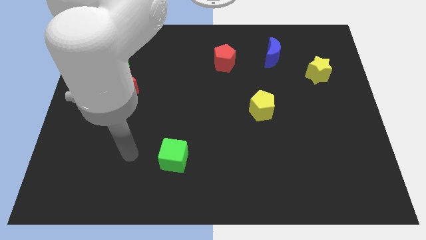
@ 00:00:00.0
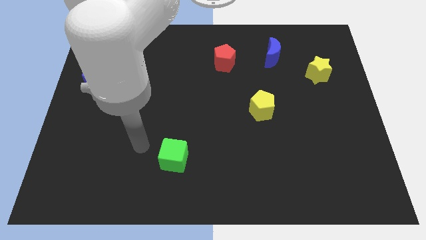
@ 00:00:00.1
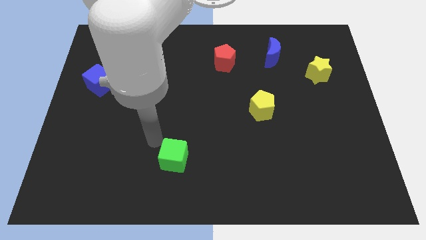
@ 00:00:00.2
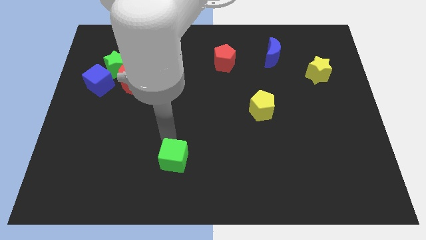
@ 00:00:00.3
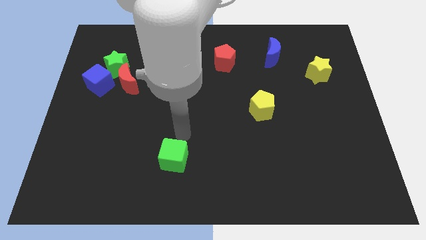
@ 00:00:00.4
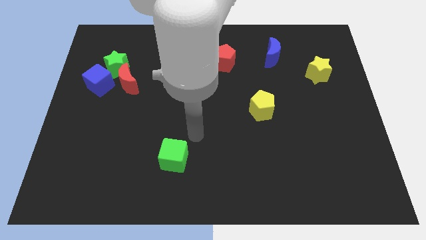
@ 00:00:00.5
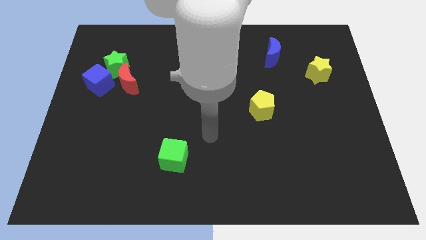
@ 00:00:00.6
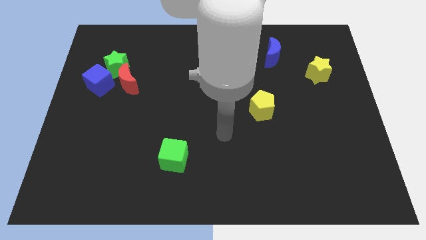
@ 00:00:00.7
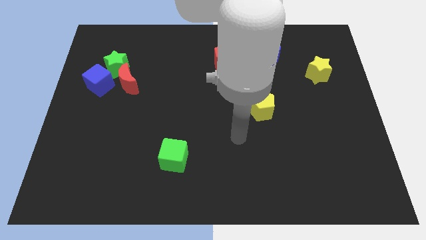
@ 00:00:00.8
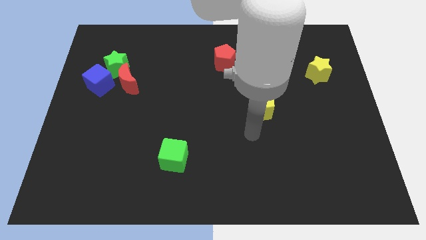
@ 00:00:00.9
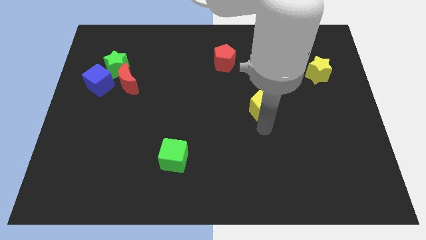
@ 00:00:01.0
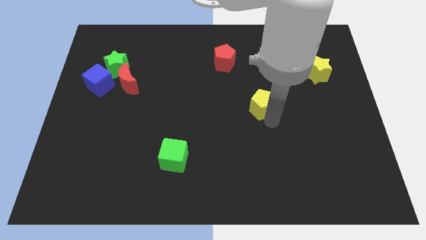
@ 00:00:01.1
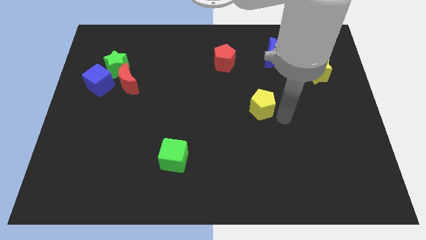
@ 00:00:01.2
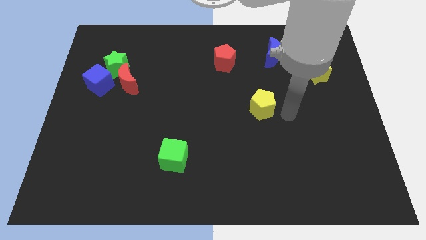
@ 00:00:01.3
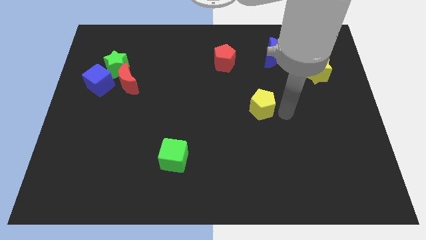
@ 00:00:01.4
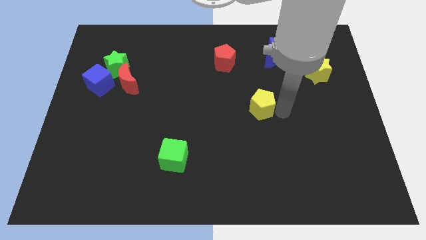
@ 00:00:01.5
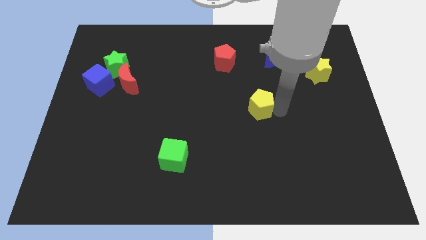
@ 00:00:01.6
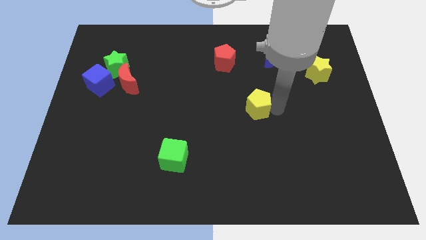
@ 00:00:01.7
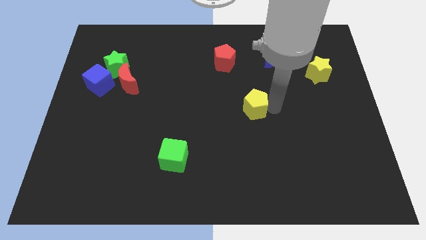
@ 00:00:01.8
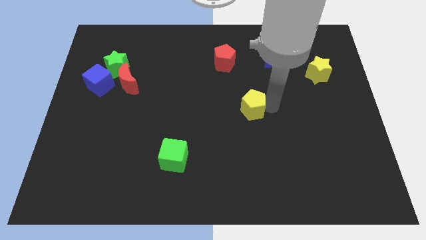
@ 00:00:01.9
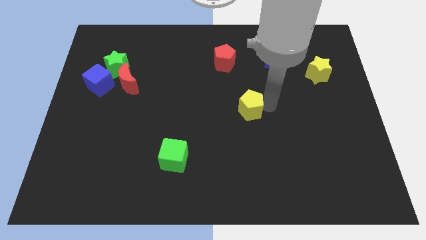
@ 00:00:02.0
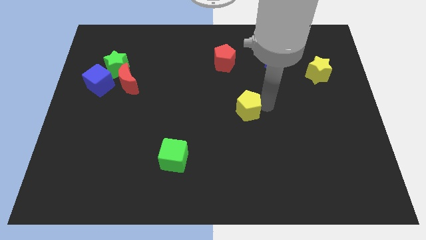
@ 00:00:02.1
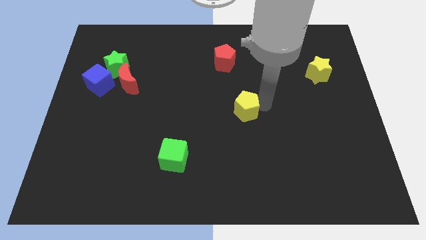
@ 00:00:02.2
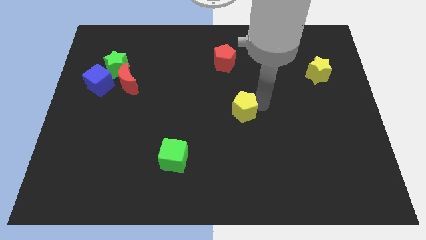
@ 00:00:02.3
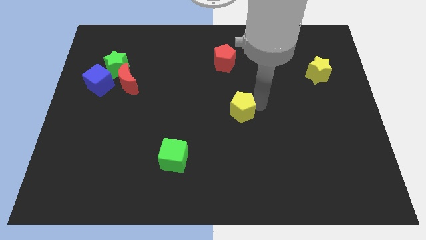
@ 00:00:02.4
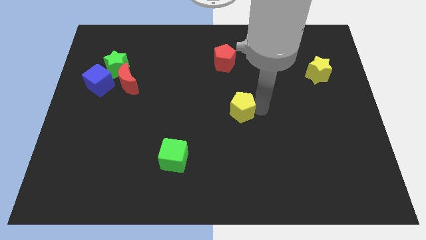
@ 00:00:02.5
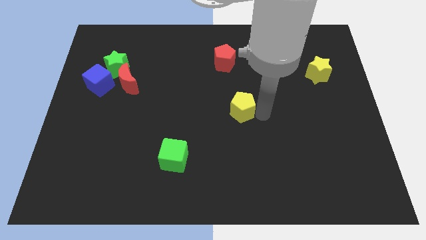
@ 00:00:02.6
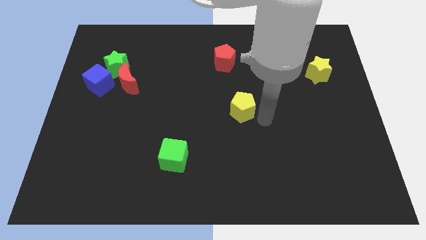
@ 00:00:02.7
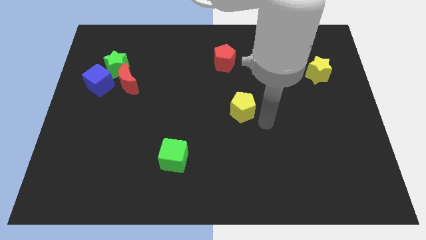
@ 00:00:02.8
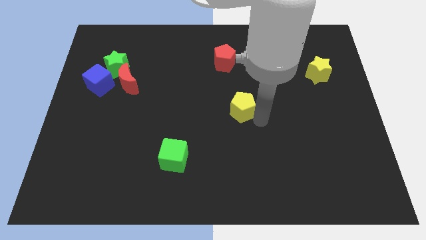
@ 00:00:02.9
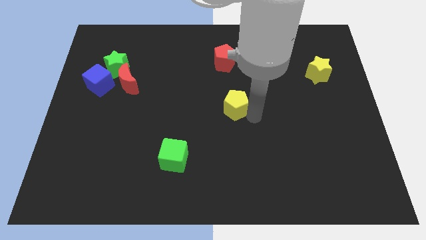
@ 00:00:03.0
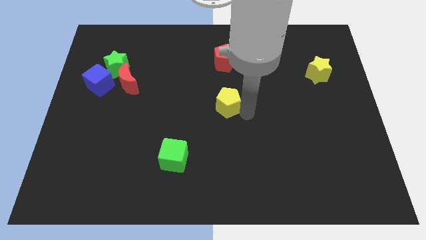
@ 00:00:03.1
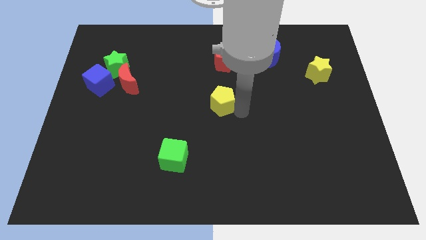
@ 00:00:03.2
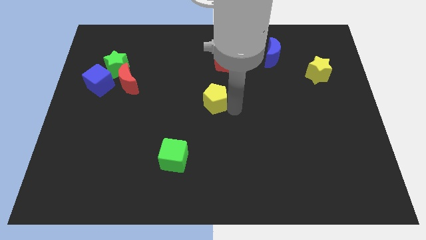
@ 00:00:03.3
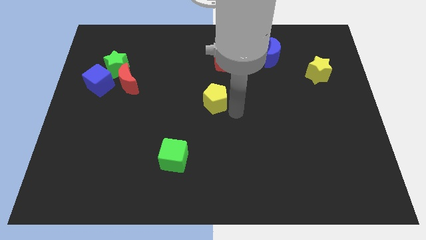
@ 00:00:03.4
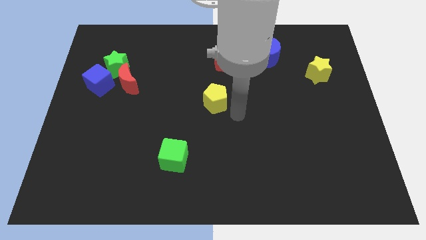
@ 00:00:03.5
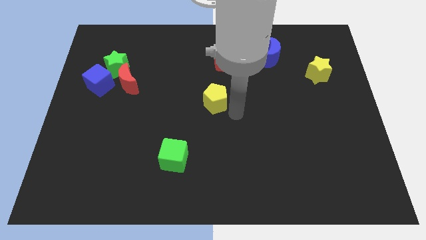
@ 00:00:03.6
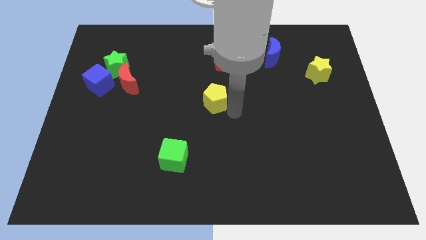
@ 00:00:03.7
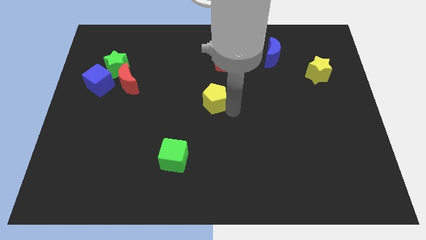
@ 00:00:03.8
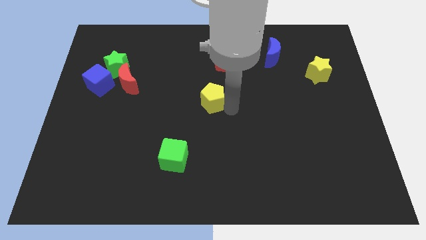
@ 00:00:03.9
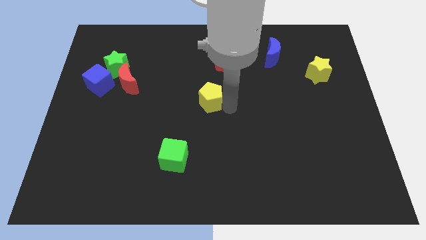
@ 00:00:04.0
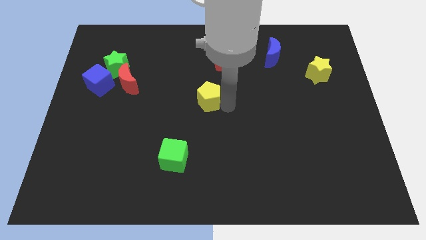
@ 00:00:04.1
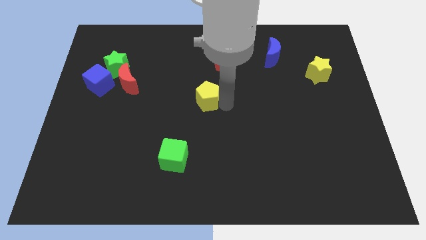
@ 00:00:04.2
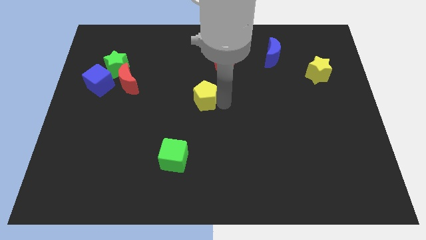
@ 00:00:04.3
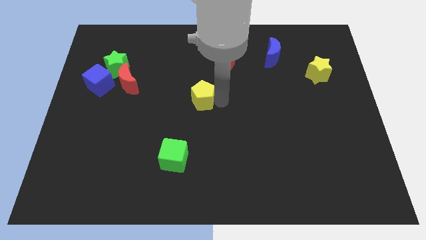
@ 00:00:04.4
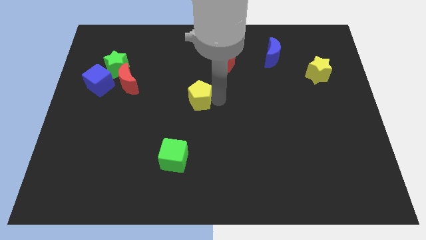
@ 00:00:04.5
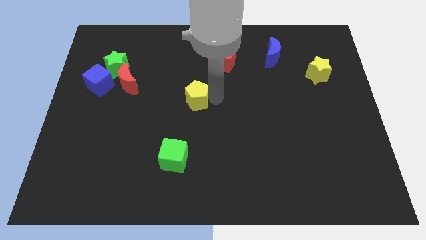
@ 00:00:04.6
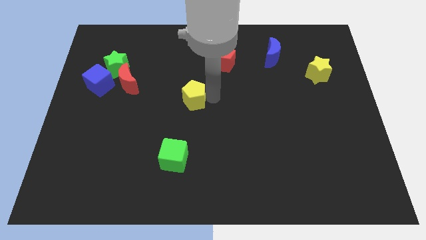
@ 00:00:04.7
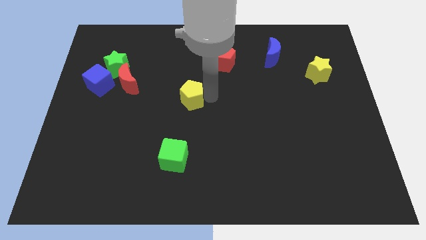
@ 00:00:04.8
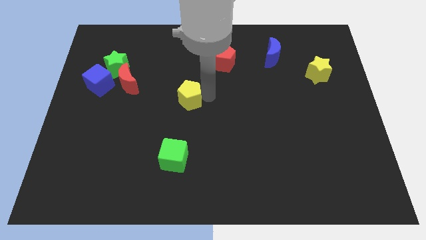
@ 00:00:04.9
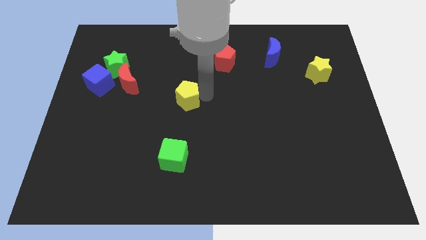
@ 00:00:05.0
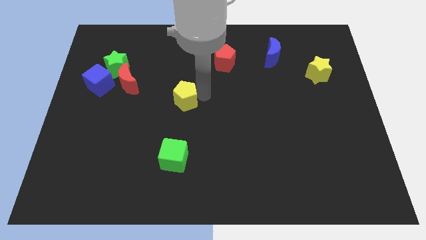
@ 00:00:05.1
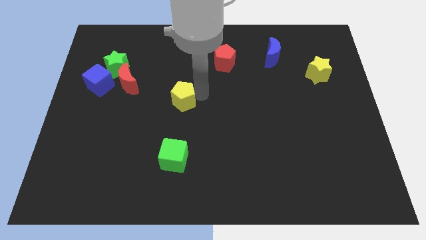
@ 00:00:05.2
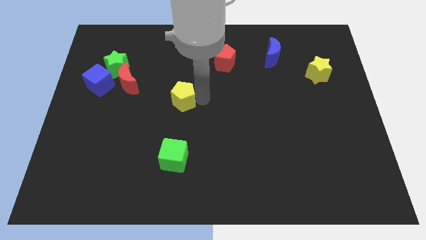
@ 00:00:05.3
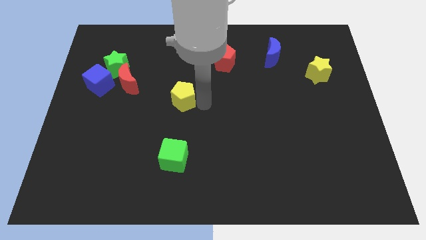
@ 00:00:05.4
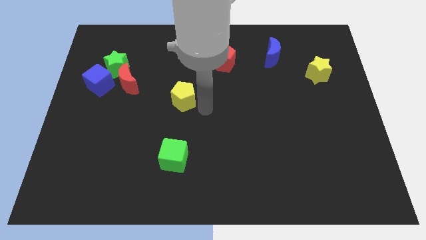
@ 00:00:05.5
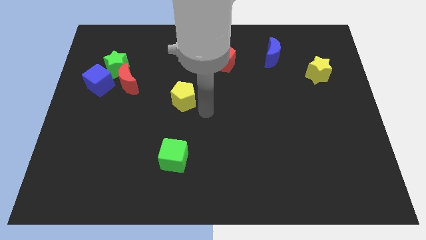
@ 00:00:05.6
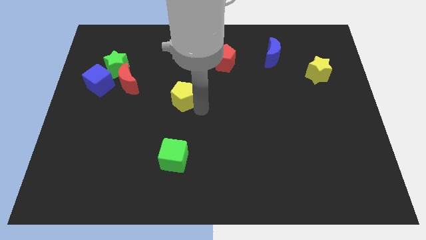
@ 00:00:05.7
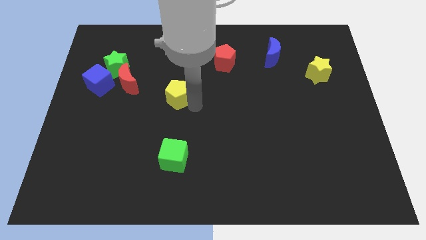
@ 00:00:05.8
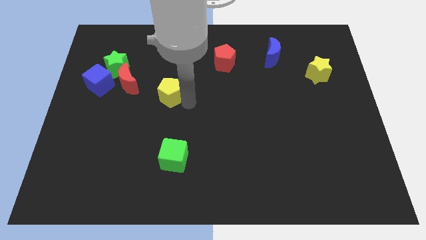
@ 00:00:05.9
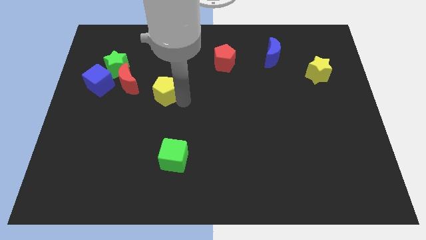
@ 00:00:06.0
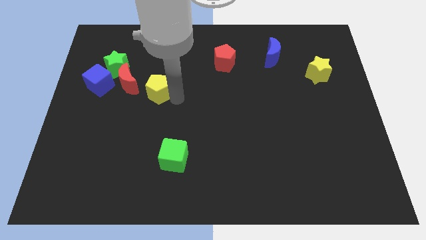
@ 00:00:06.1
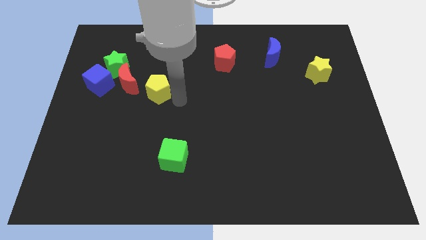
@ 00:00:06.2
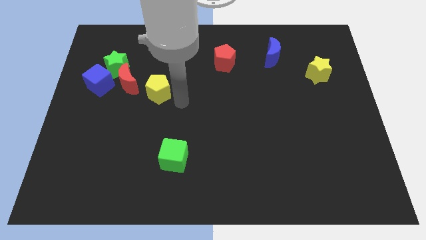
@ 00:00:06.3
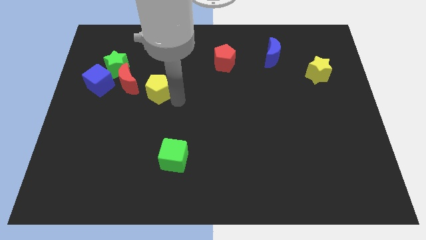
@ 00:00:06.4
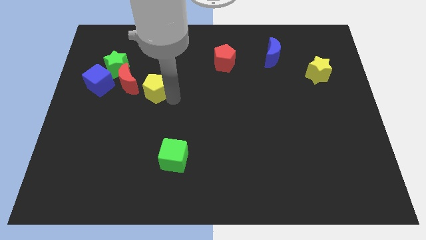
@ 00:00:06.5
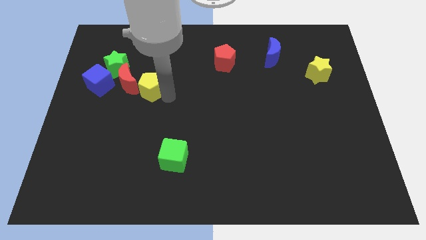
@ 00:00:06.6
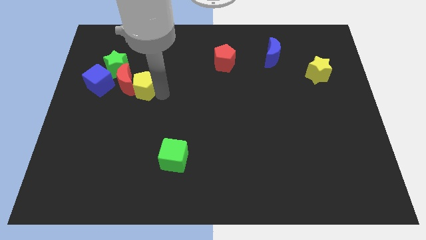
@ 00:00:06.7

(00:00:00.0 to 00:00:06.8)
push the yellow pentagon next to the red moon
